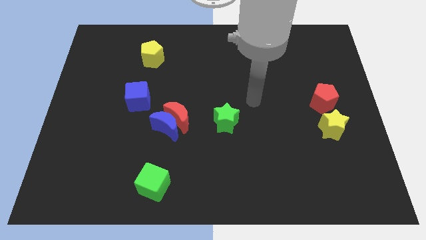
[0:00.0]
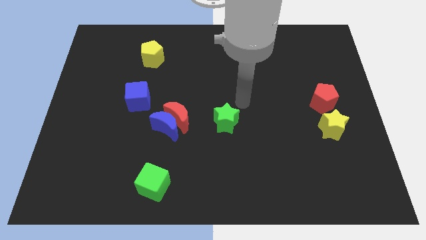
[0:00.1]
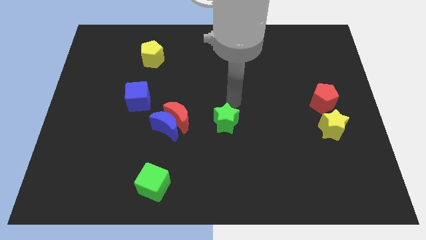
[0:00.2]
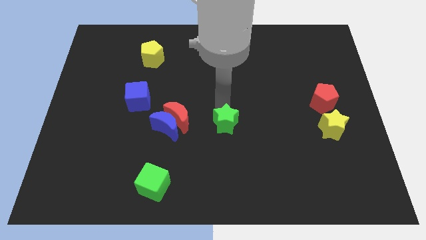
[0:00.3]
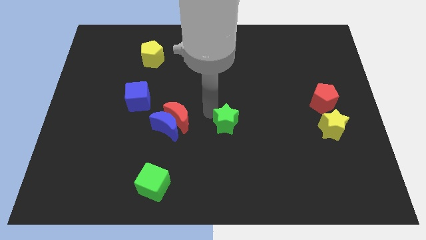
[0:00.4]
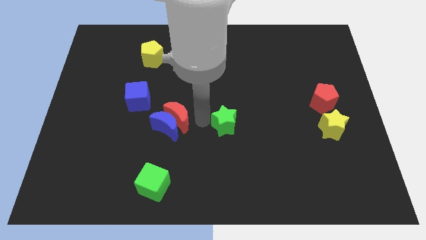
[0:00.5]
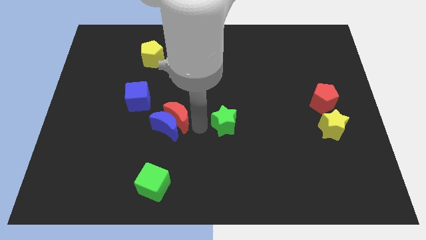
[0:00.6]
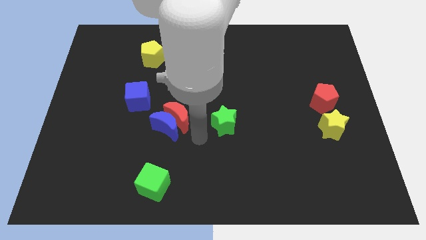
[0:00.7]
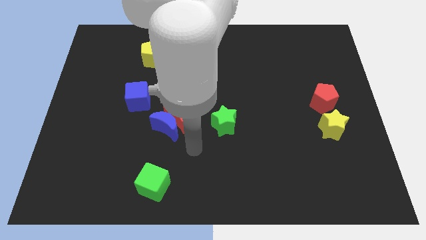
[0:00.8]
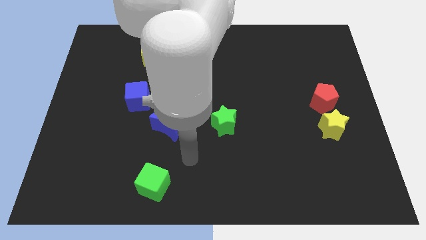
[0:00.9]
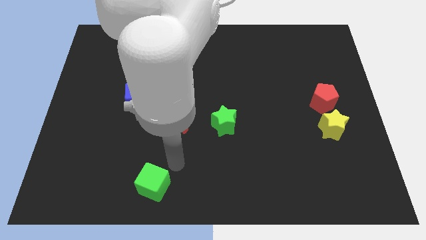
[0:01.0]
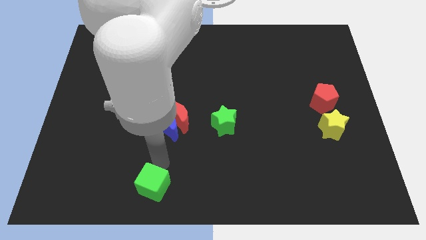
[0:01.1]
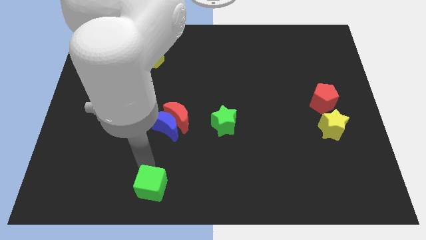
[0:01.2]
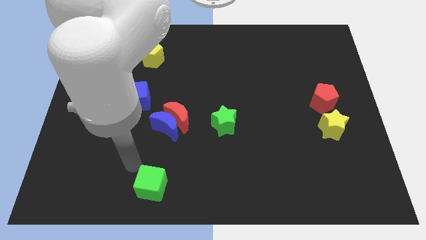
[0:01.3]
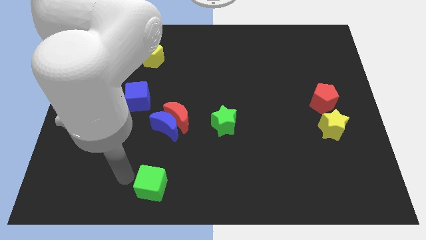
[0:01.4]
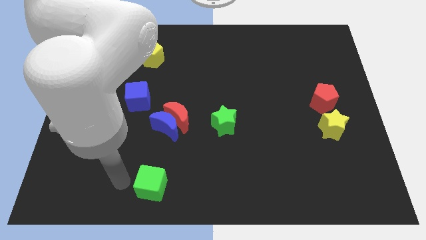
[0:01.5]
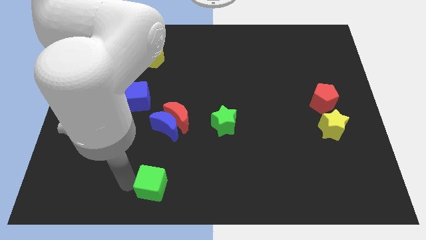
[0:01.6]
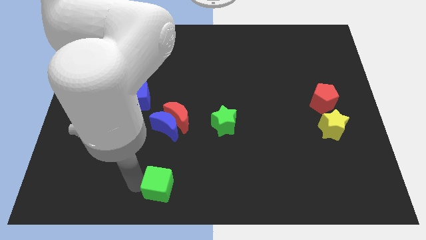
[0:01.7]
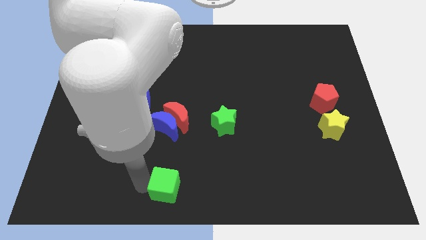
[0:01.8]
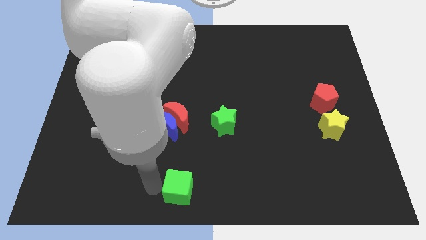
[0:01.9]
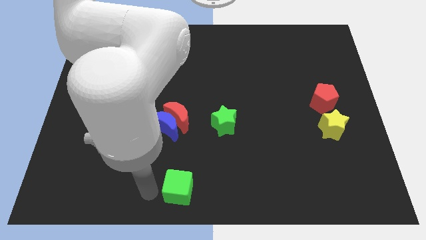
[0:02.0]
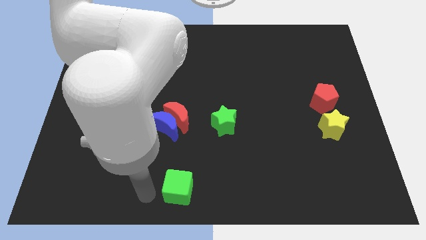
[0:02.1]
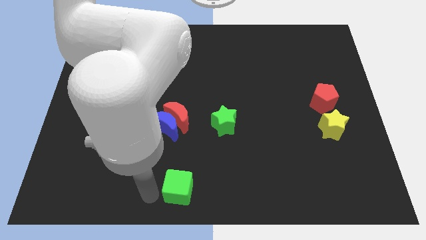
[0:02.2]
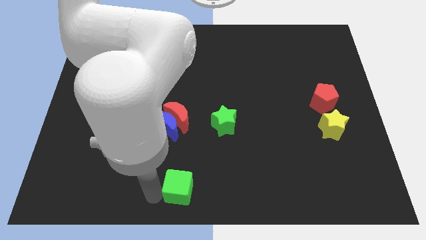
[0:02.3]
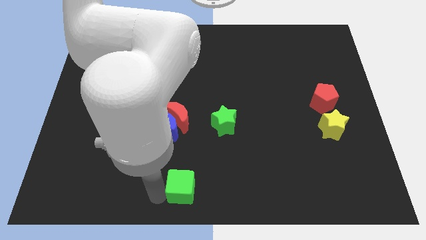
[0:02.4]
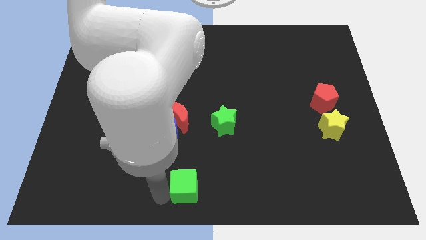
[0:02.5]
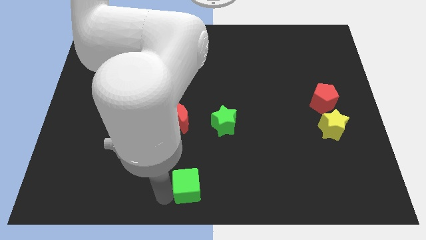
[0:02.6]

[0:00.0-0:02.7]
move the green cube a little to the right

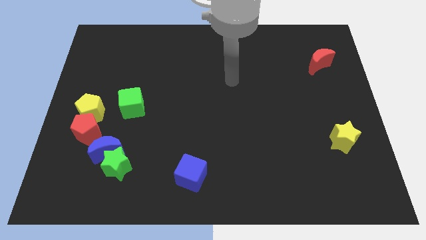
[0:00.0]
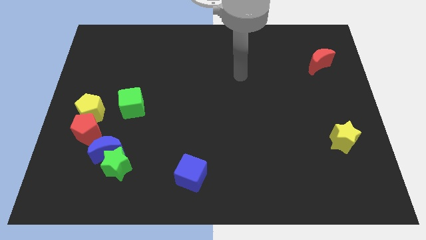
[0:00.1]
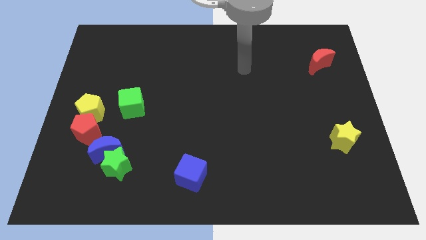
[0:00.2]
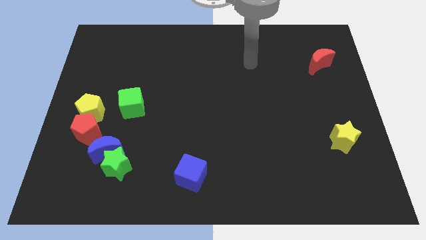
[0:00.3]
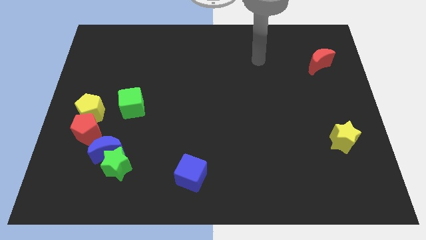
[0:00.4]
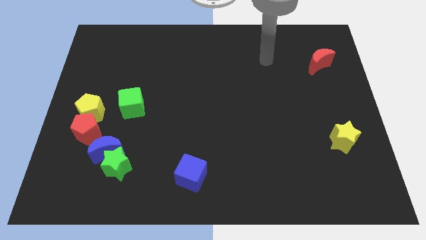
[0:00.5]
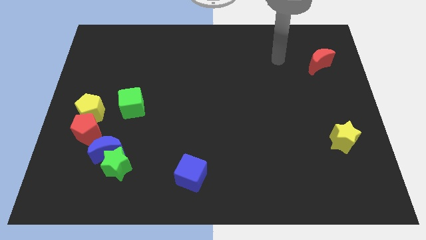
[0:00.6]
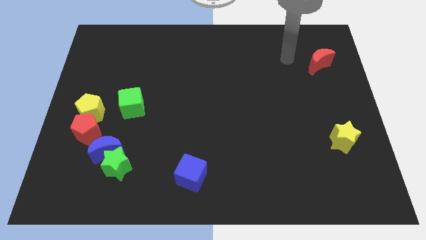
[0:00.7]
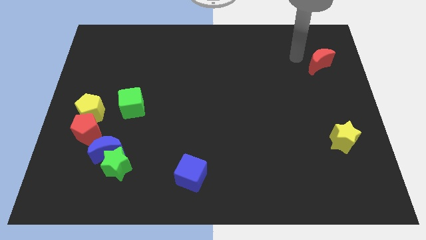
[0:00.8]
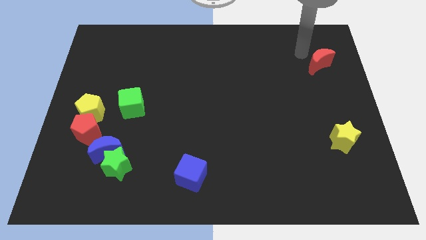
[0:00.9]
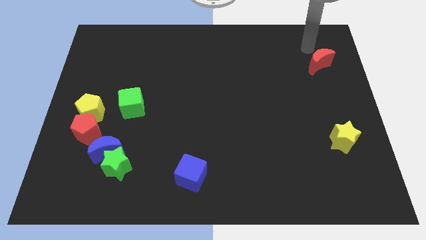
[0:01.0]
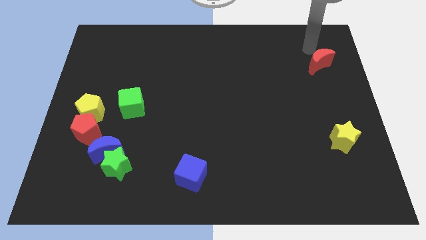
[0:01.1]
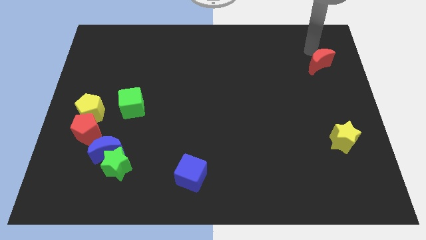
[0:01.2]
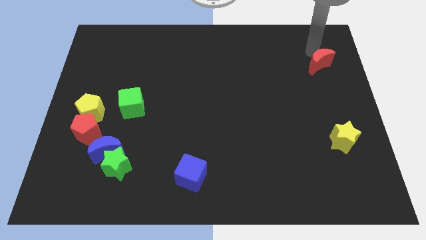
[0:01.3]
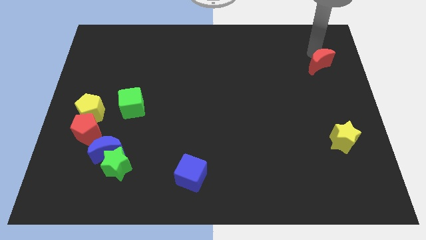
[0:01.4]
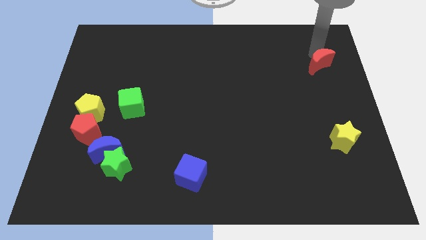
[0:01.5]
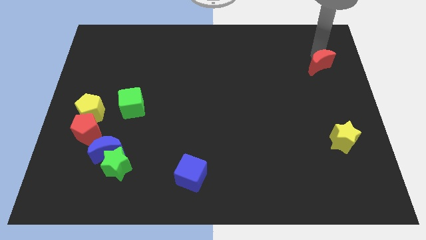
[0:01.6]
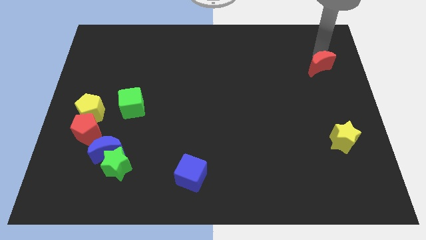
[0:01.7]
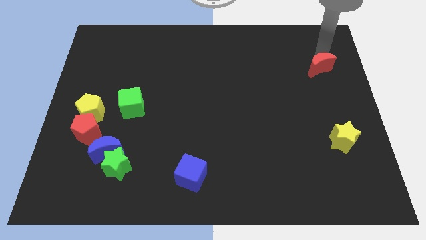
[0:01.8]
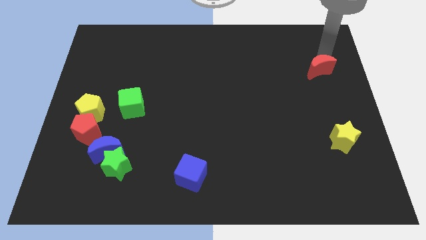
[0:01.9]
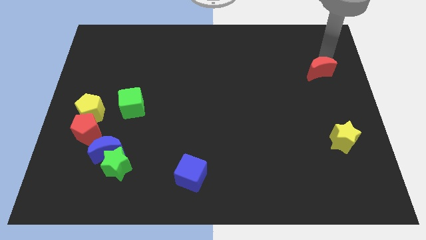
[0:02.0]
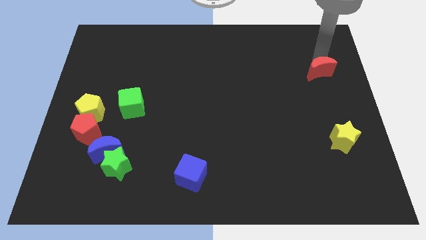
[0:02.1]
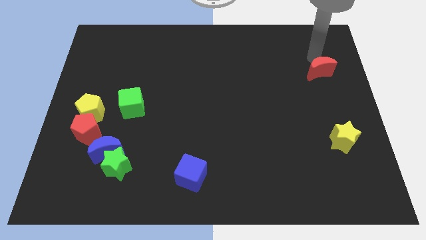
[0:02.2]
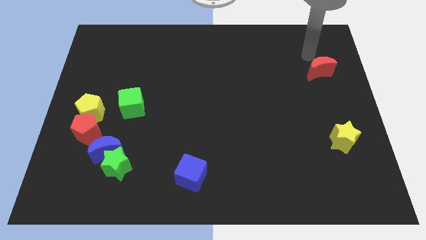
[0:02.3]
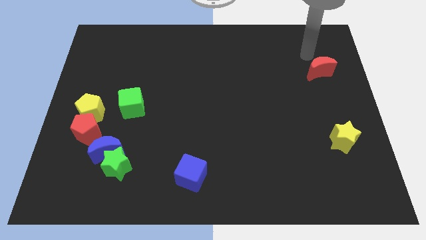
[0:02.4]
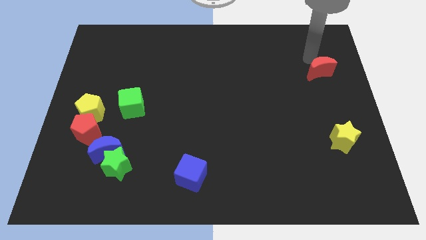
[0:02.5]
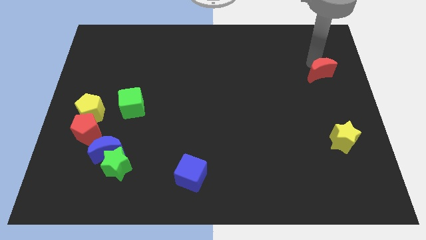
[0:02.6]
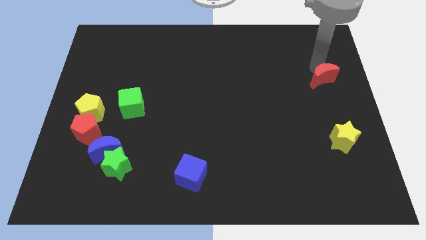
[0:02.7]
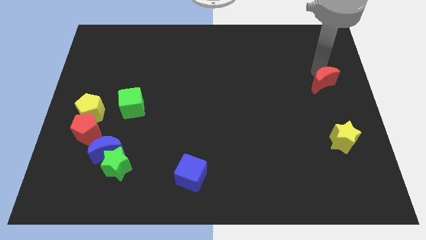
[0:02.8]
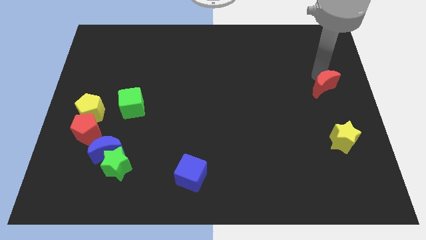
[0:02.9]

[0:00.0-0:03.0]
push the red moon slightly down

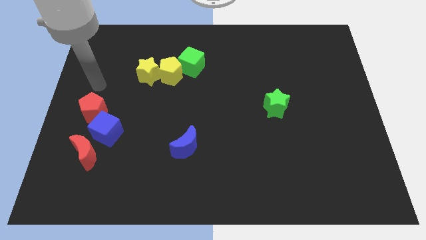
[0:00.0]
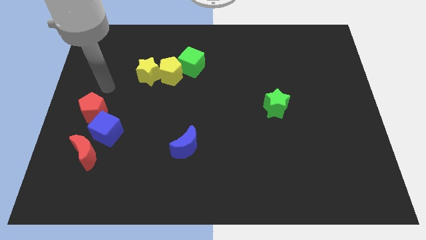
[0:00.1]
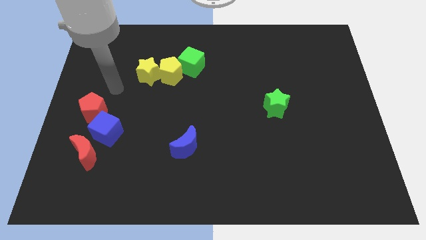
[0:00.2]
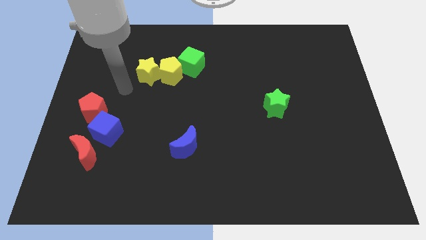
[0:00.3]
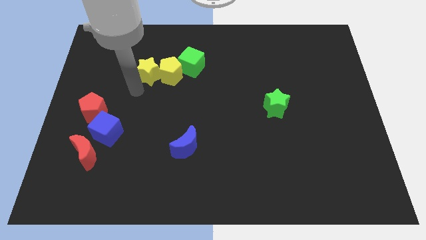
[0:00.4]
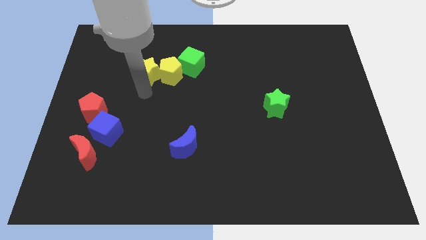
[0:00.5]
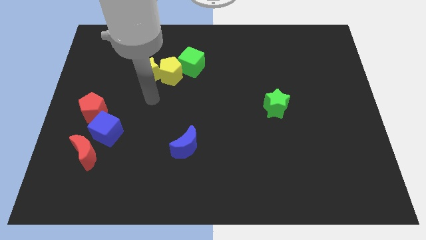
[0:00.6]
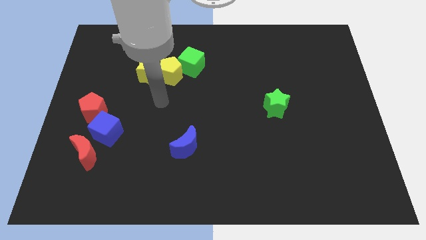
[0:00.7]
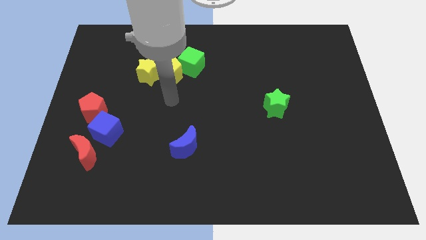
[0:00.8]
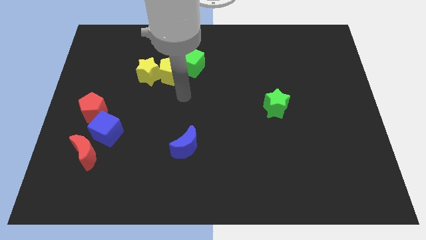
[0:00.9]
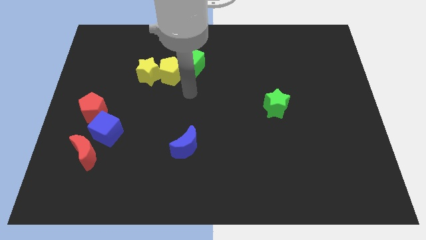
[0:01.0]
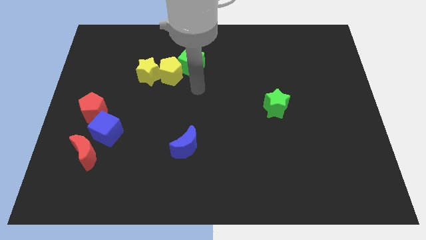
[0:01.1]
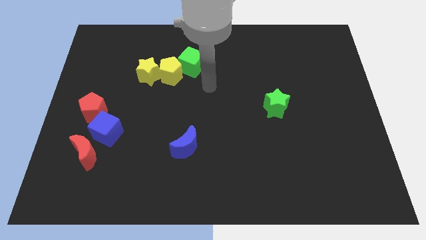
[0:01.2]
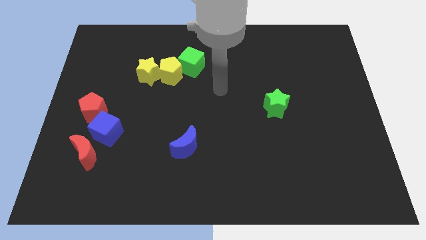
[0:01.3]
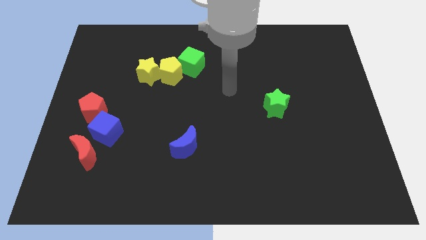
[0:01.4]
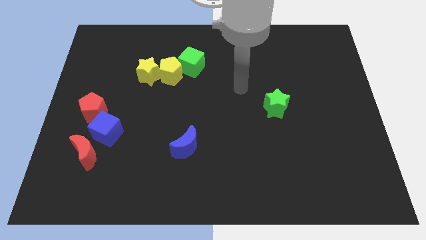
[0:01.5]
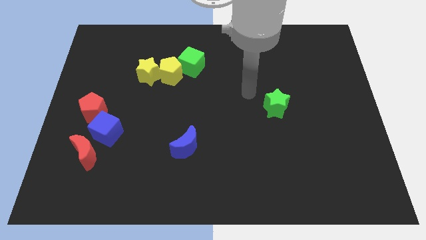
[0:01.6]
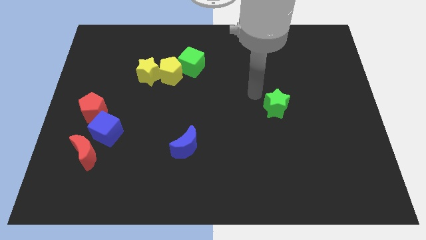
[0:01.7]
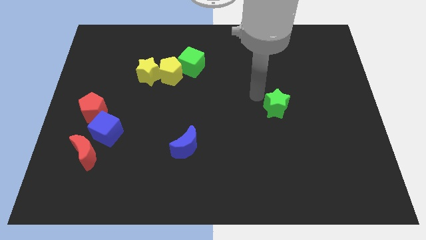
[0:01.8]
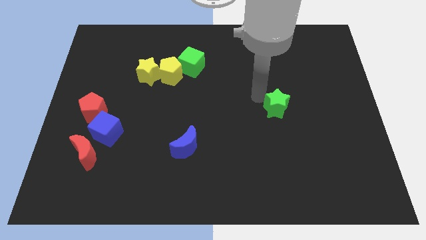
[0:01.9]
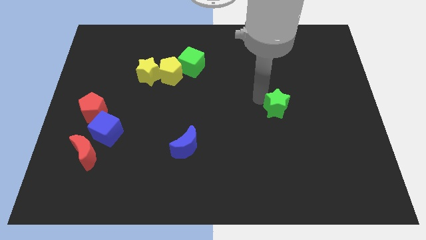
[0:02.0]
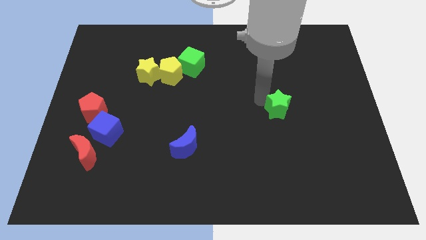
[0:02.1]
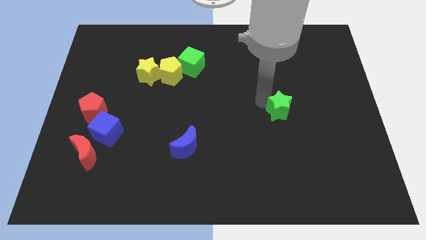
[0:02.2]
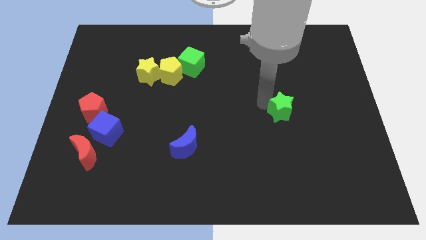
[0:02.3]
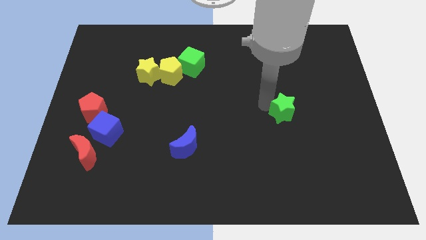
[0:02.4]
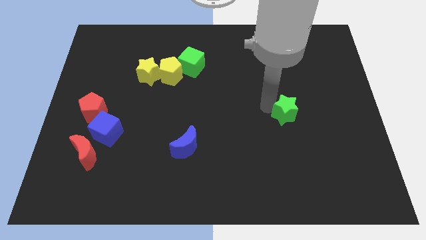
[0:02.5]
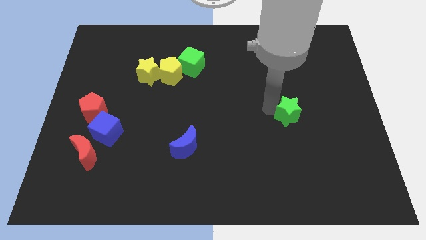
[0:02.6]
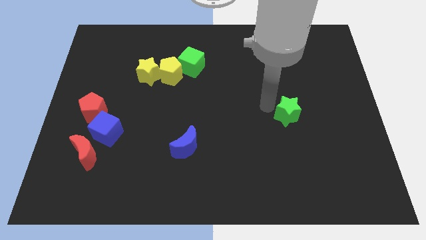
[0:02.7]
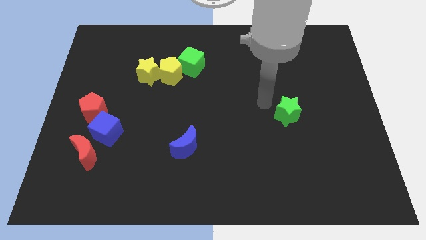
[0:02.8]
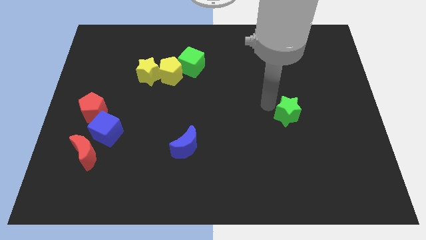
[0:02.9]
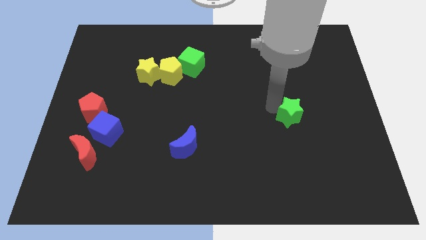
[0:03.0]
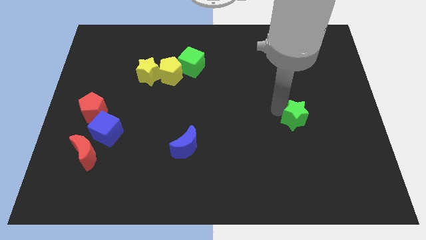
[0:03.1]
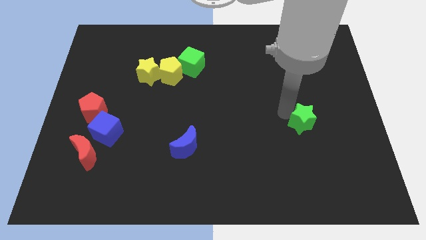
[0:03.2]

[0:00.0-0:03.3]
slightly push the green star downwards and right
